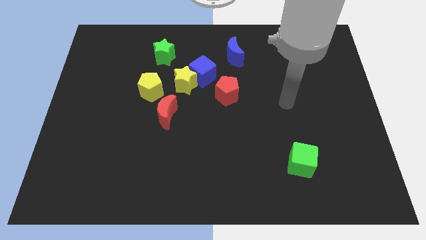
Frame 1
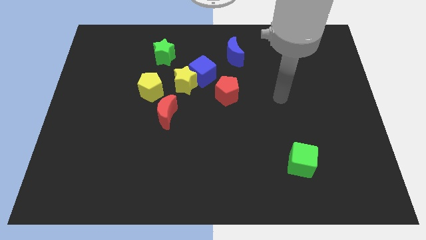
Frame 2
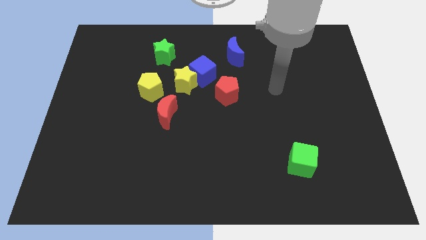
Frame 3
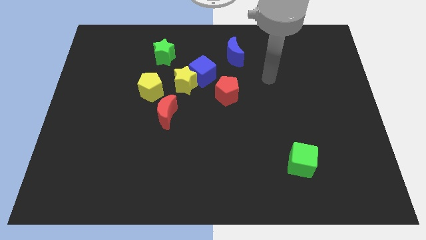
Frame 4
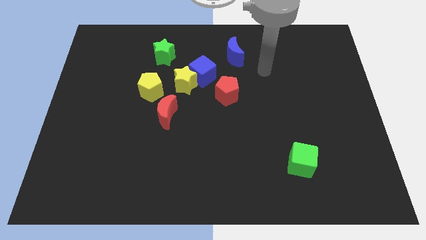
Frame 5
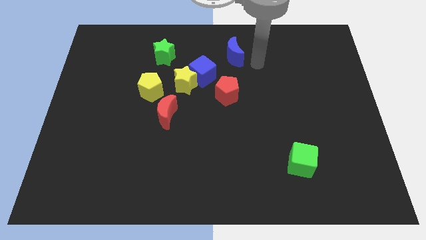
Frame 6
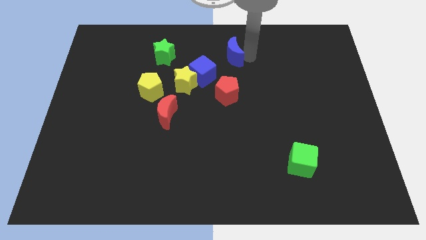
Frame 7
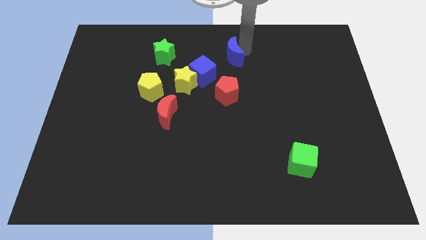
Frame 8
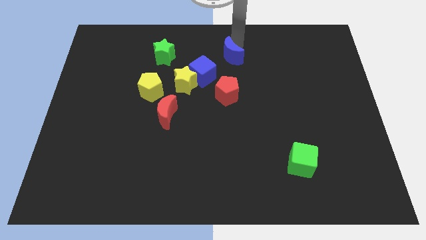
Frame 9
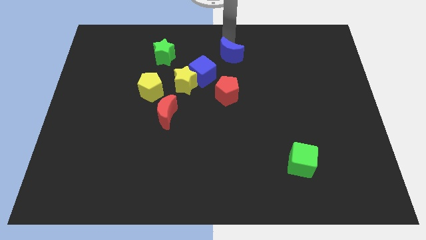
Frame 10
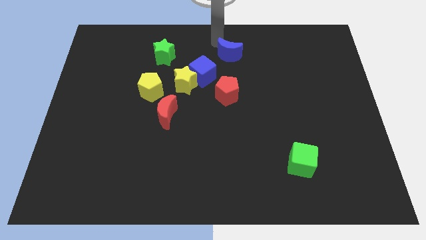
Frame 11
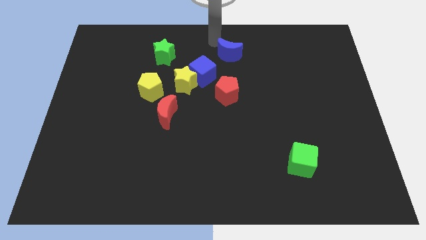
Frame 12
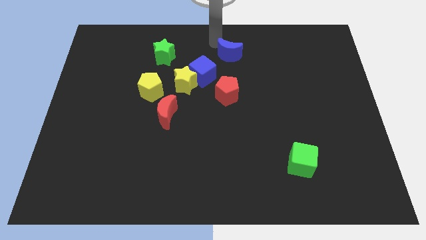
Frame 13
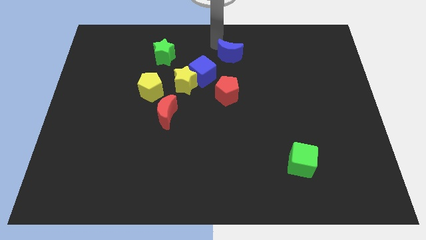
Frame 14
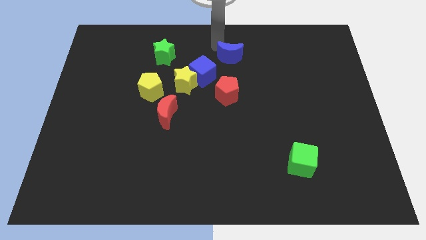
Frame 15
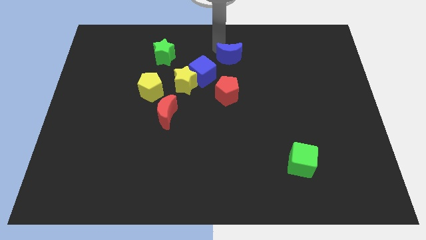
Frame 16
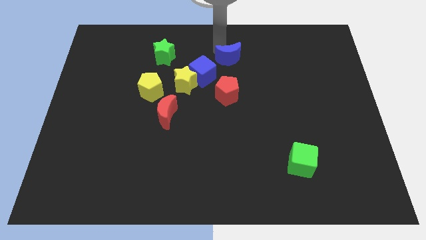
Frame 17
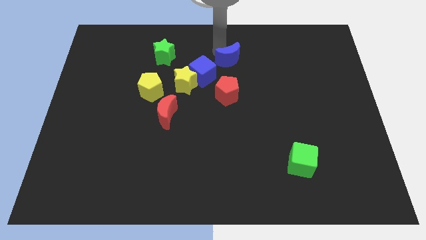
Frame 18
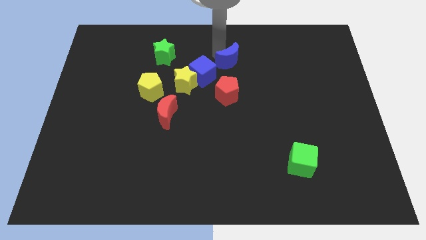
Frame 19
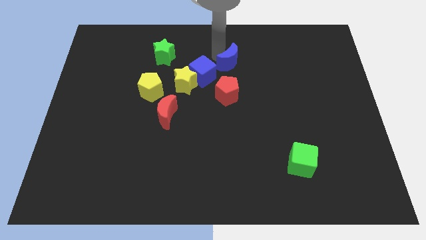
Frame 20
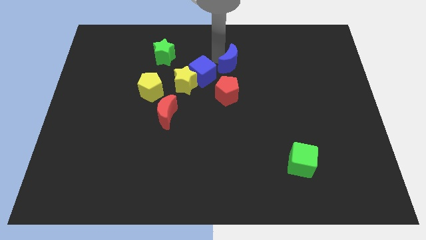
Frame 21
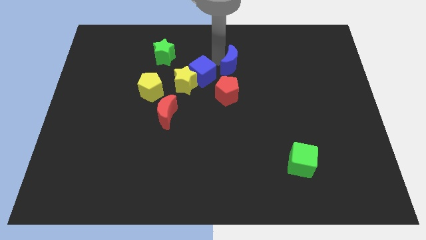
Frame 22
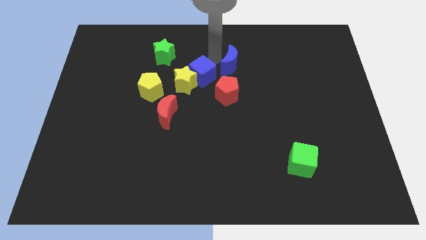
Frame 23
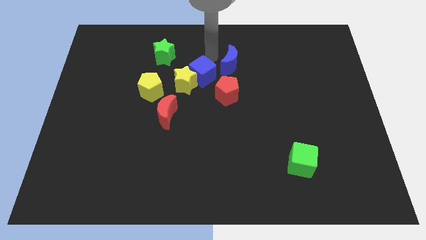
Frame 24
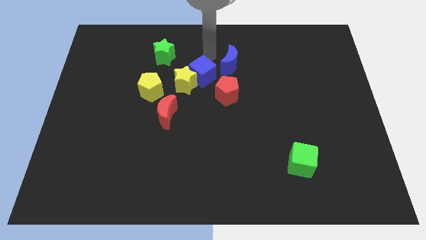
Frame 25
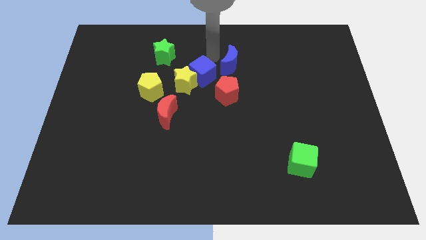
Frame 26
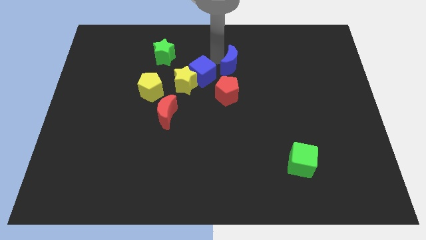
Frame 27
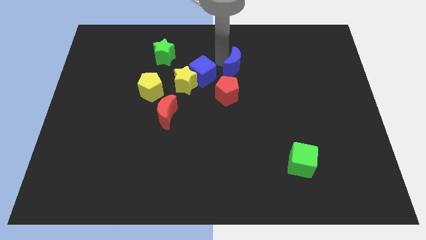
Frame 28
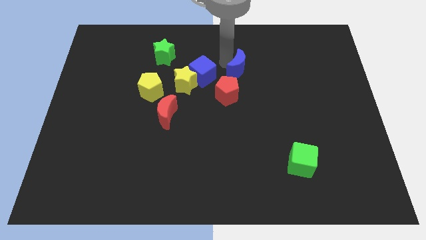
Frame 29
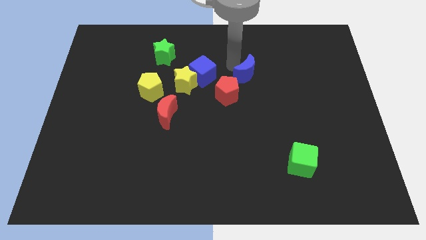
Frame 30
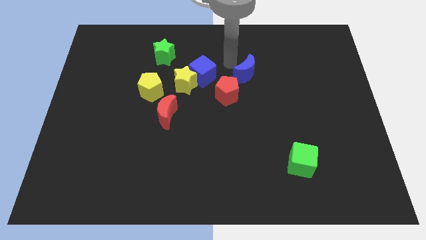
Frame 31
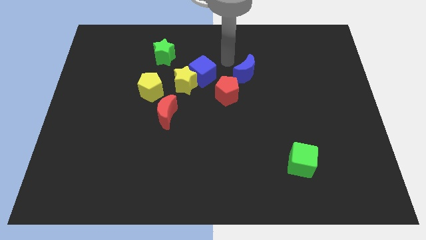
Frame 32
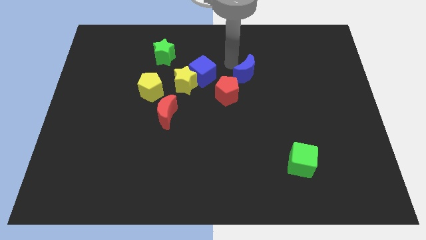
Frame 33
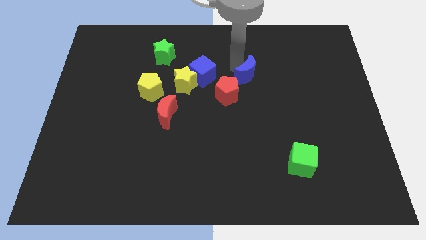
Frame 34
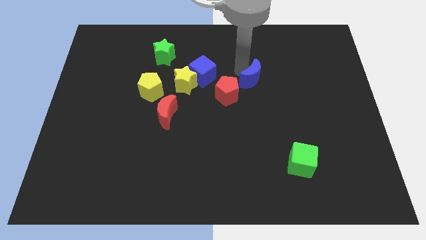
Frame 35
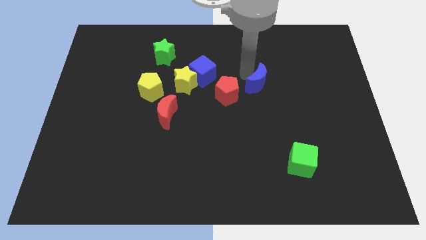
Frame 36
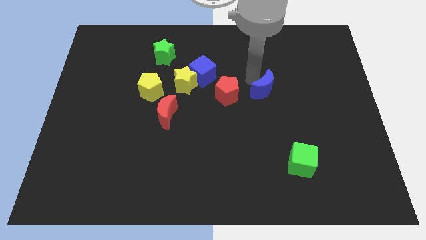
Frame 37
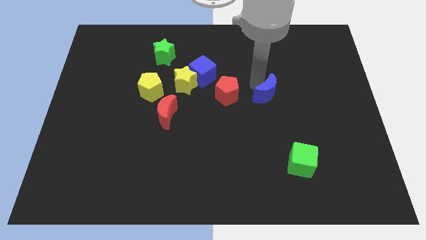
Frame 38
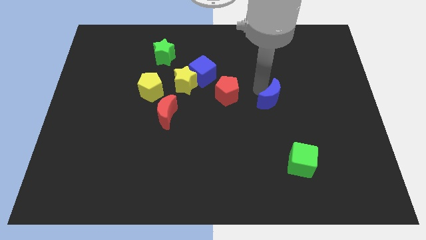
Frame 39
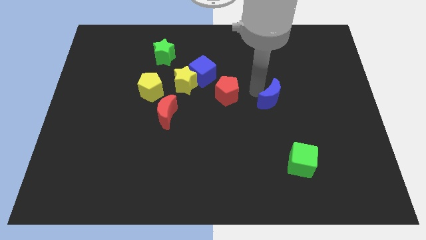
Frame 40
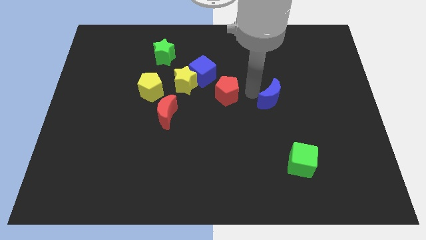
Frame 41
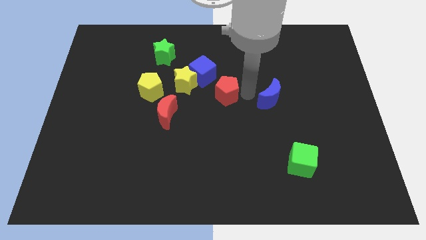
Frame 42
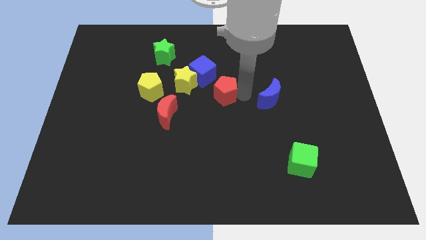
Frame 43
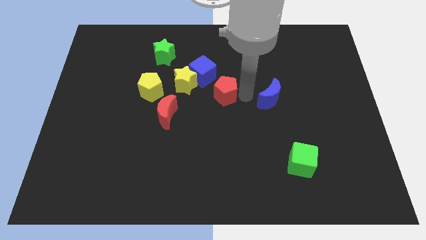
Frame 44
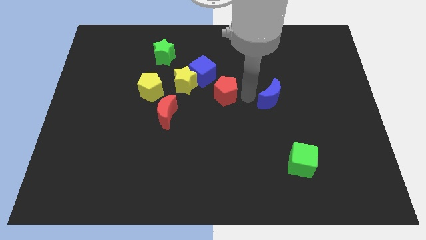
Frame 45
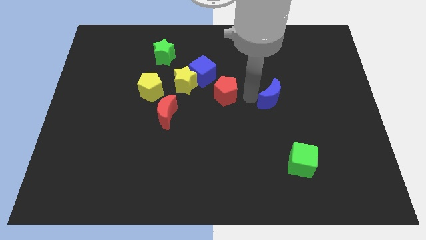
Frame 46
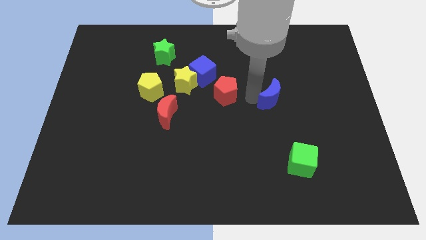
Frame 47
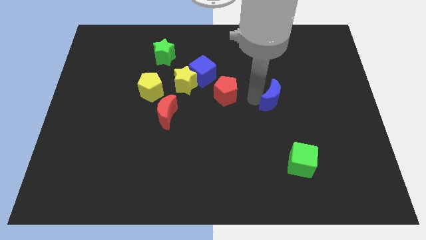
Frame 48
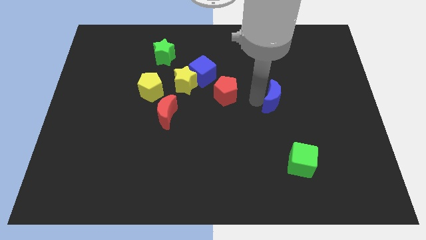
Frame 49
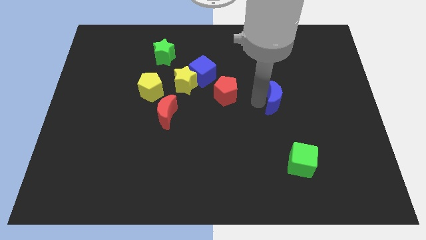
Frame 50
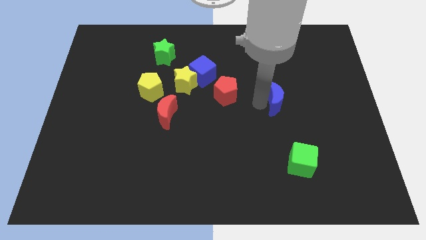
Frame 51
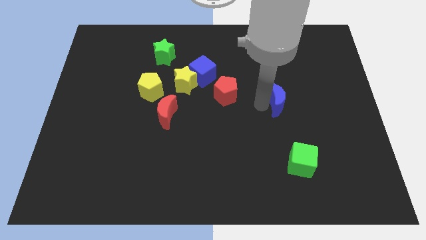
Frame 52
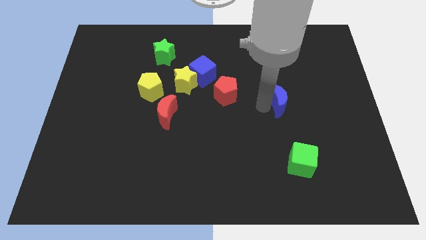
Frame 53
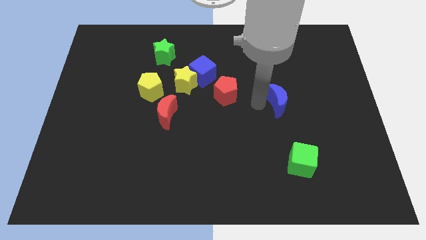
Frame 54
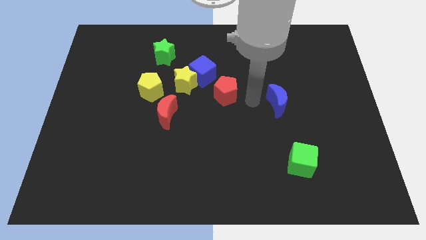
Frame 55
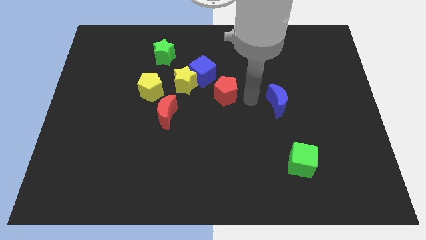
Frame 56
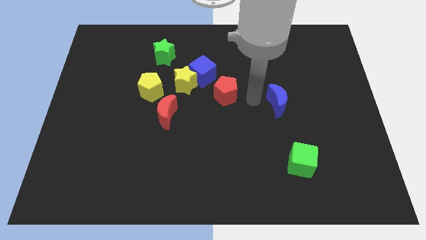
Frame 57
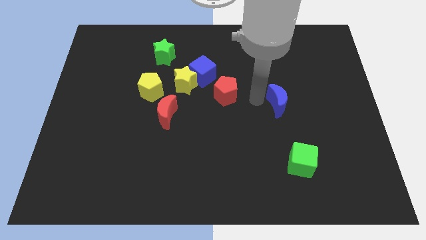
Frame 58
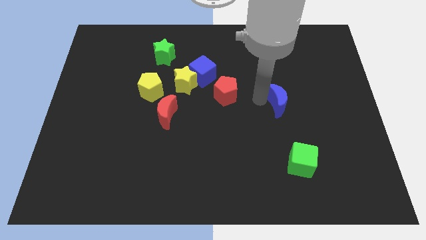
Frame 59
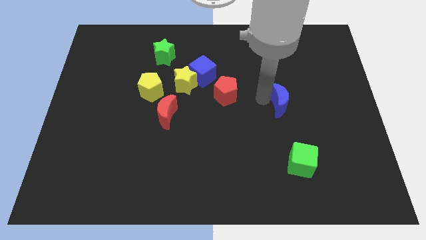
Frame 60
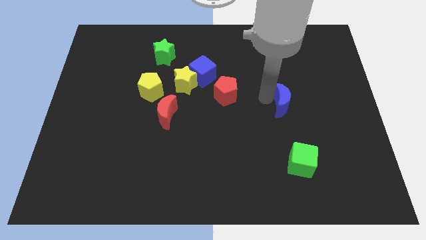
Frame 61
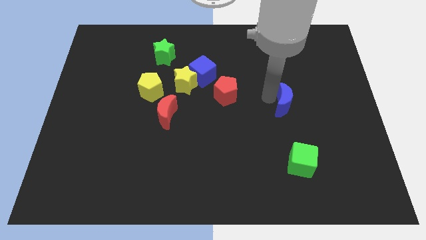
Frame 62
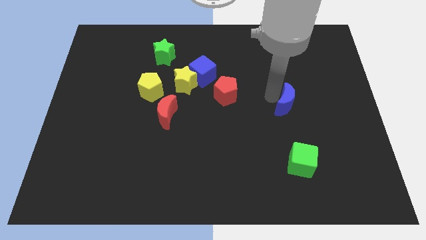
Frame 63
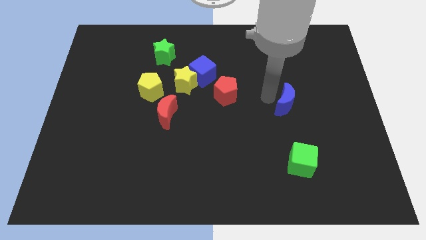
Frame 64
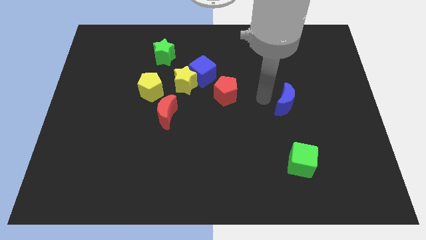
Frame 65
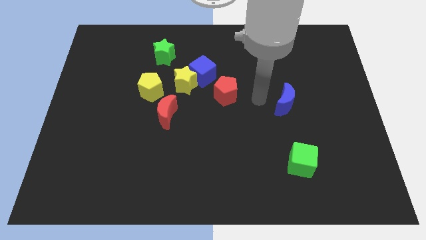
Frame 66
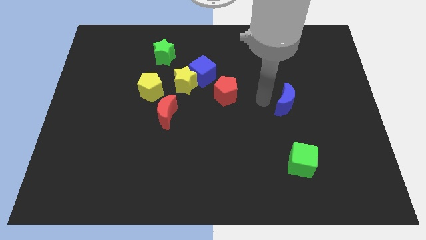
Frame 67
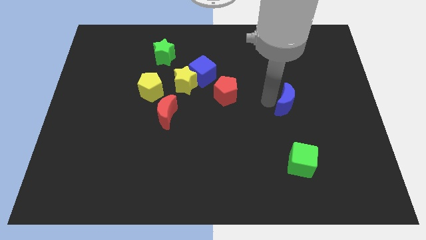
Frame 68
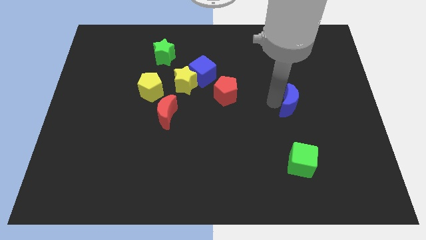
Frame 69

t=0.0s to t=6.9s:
move the blue moon down and to the right

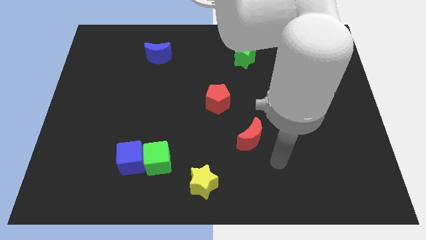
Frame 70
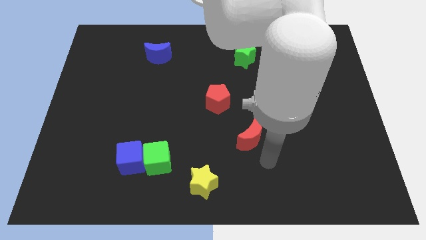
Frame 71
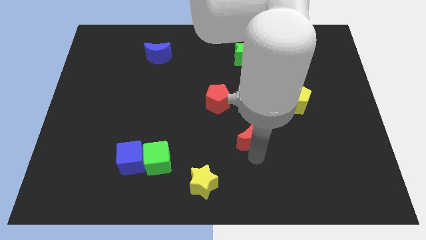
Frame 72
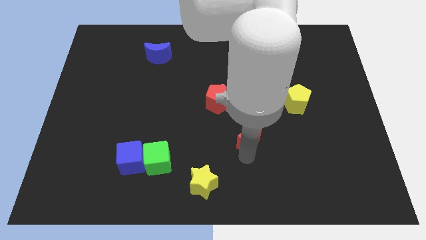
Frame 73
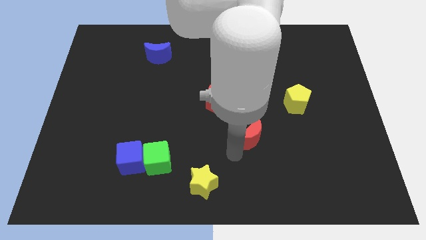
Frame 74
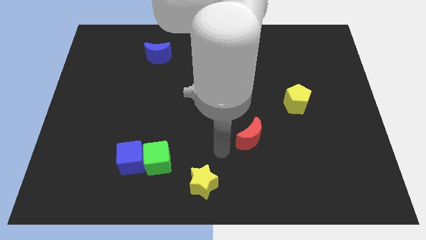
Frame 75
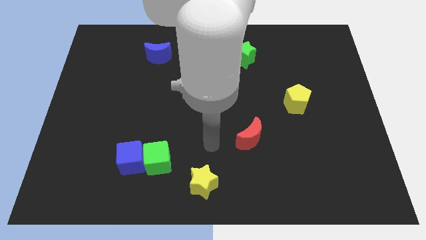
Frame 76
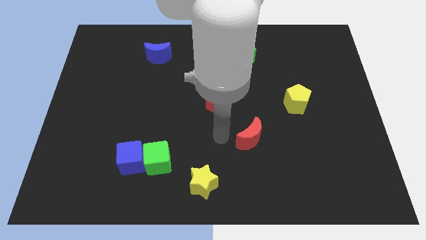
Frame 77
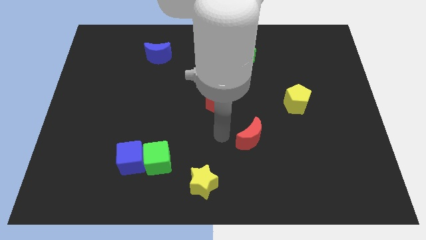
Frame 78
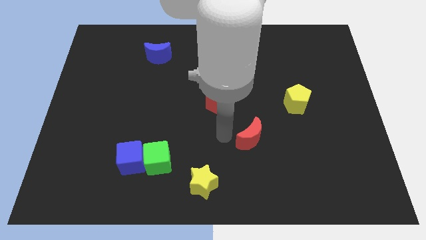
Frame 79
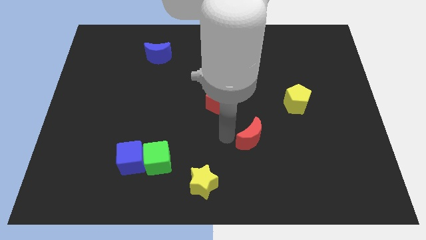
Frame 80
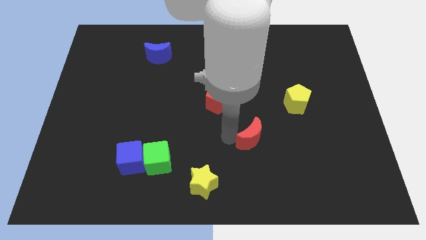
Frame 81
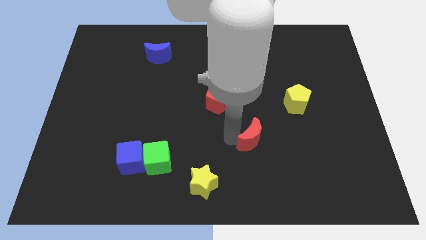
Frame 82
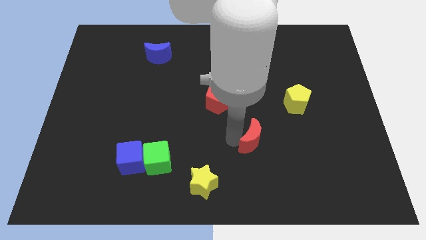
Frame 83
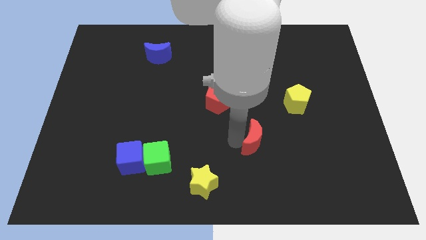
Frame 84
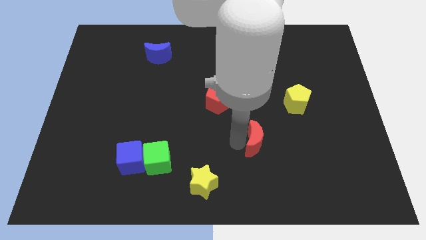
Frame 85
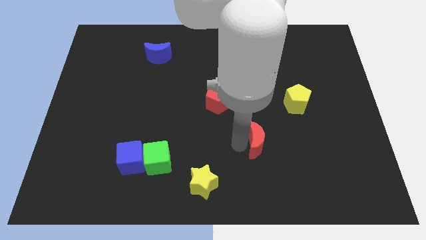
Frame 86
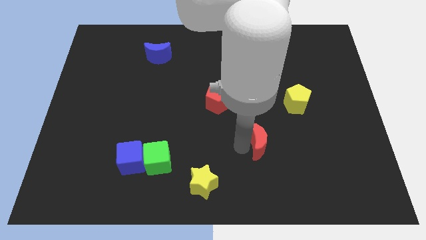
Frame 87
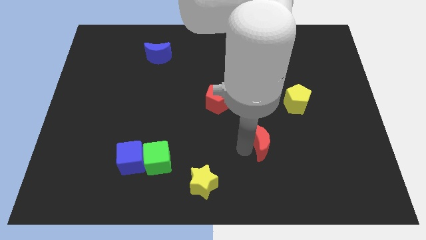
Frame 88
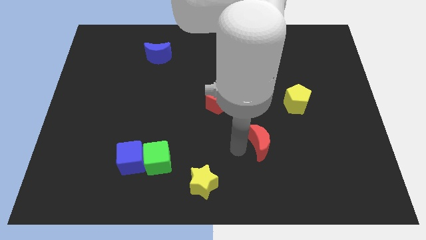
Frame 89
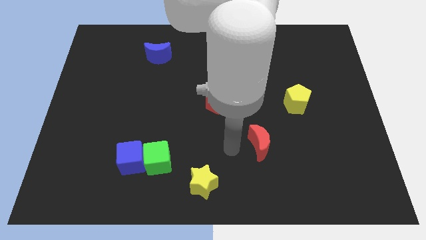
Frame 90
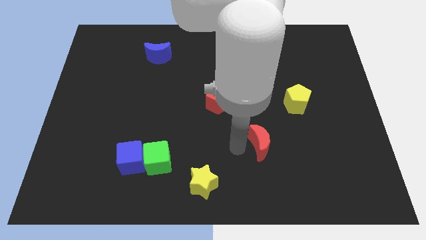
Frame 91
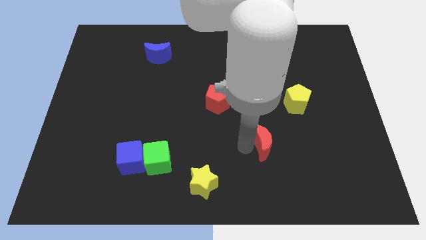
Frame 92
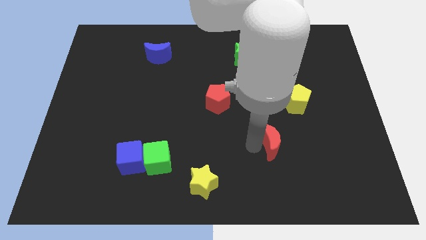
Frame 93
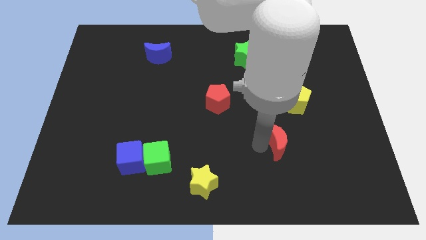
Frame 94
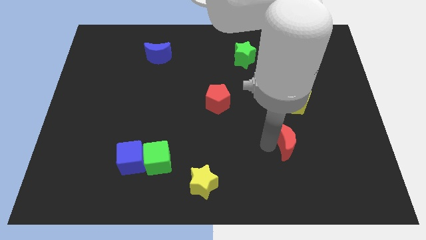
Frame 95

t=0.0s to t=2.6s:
move the red moon a bit to the right
